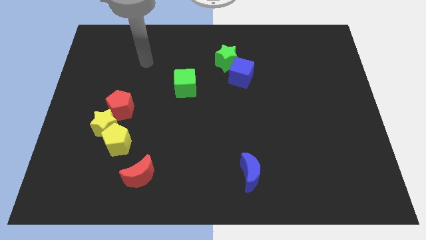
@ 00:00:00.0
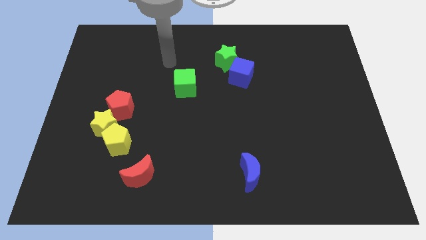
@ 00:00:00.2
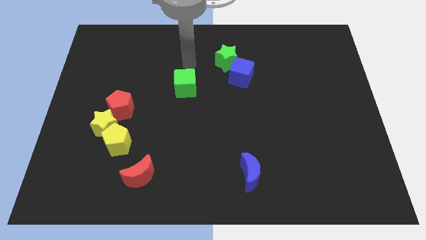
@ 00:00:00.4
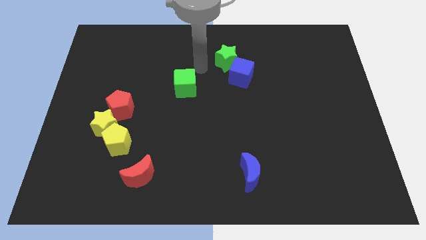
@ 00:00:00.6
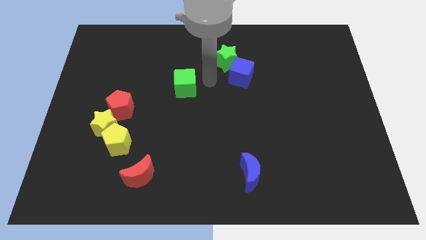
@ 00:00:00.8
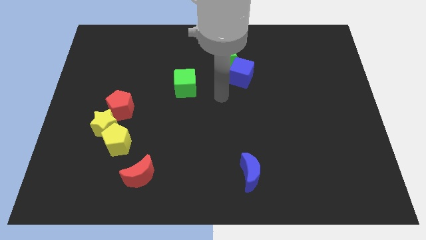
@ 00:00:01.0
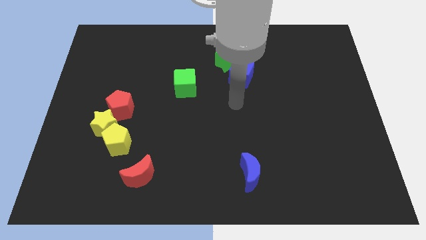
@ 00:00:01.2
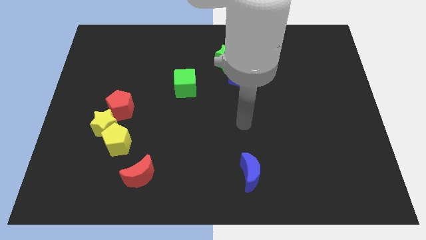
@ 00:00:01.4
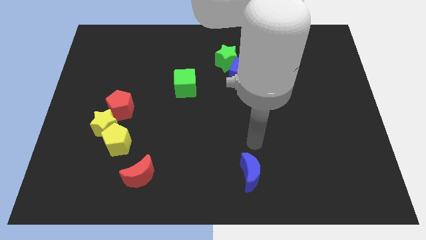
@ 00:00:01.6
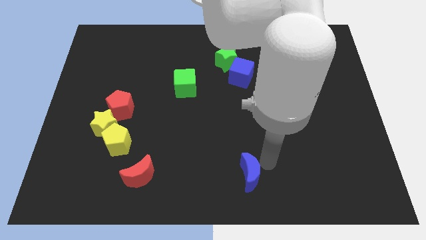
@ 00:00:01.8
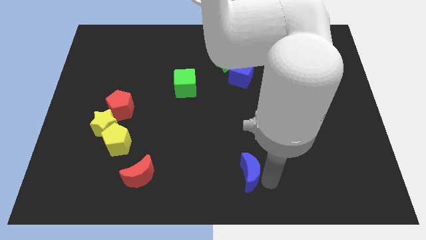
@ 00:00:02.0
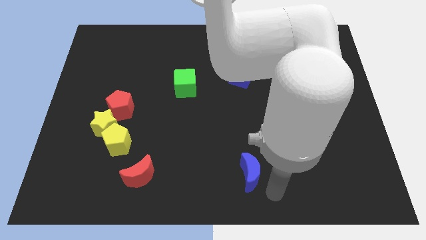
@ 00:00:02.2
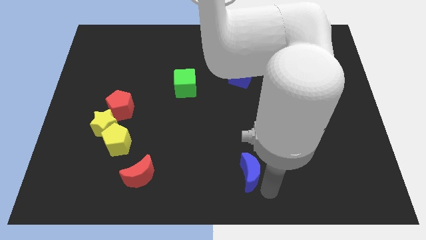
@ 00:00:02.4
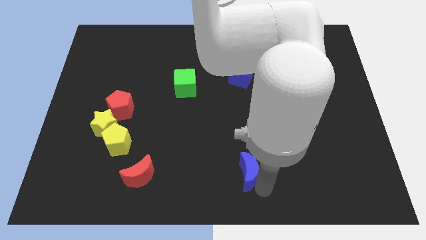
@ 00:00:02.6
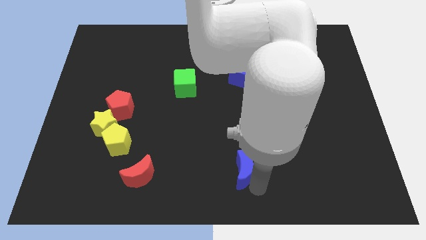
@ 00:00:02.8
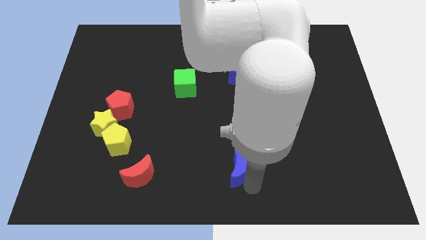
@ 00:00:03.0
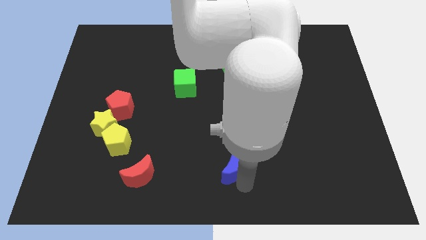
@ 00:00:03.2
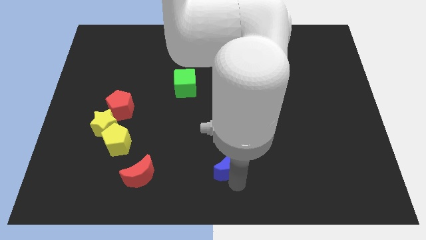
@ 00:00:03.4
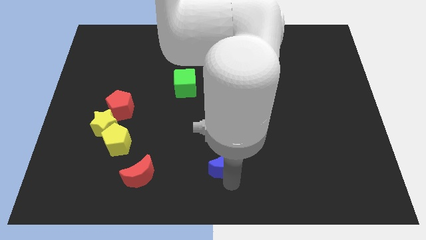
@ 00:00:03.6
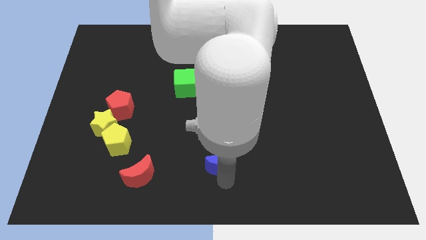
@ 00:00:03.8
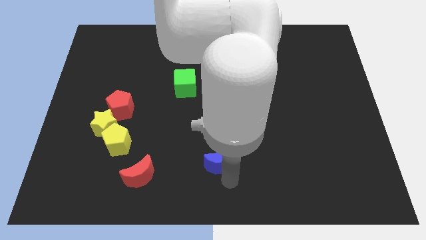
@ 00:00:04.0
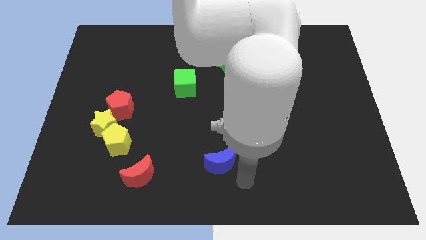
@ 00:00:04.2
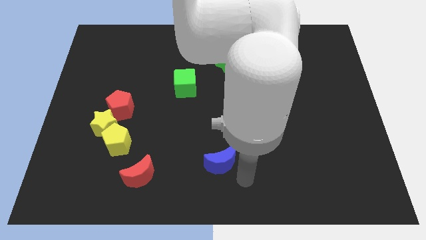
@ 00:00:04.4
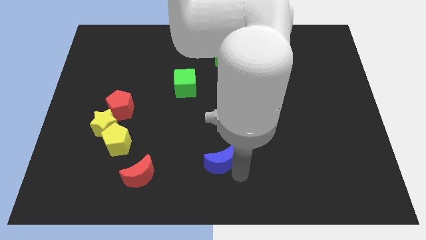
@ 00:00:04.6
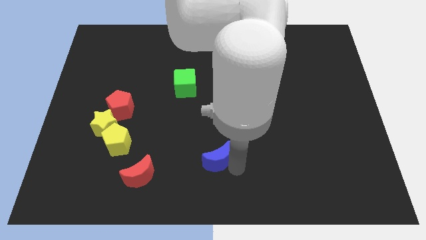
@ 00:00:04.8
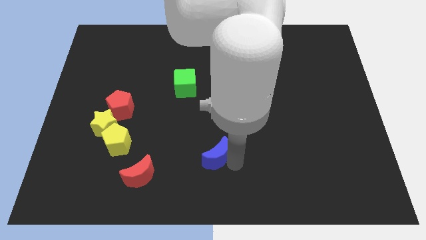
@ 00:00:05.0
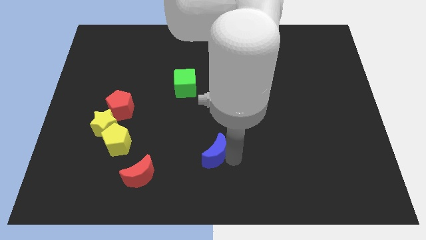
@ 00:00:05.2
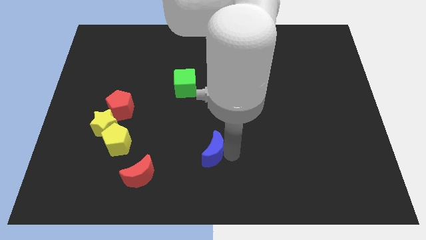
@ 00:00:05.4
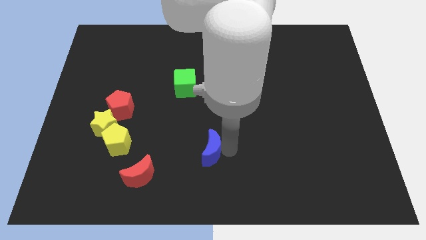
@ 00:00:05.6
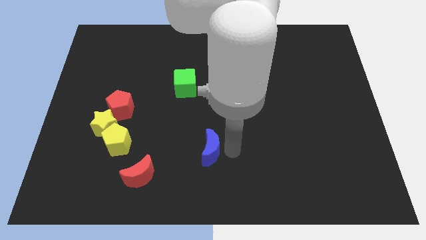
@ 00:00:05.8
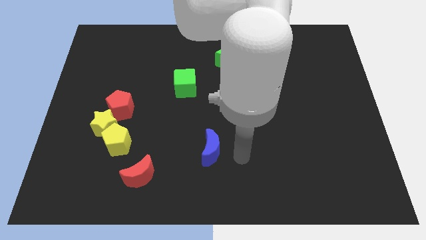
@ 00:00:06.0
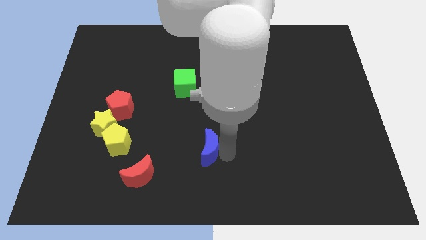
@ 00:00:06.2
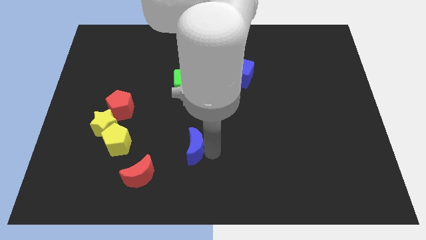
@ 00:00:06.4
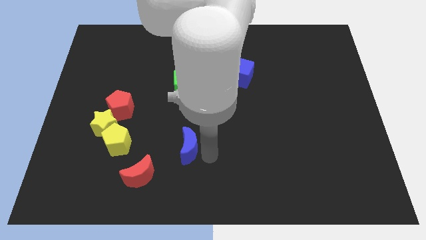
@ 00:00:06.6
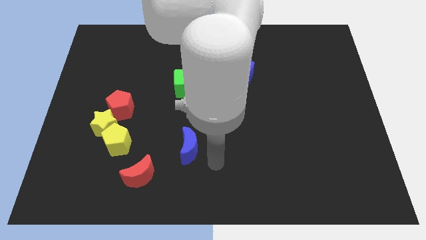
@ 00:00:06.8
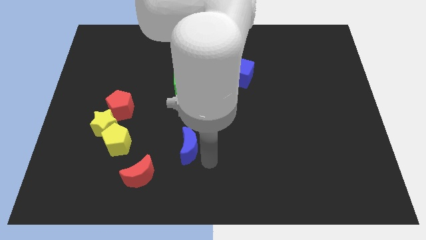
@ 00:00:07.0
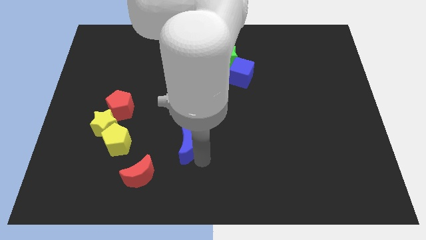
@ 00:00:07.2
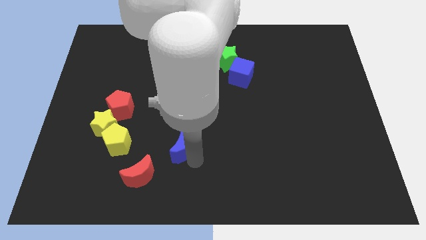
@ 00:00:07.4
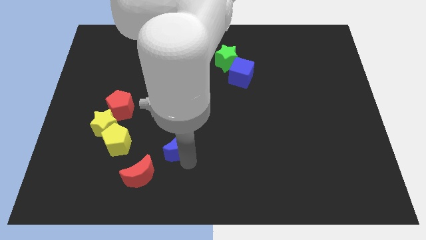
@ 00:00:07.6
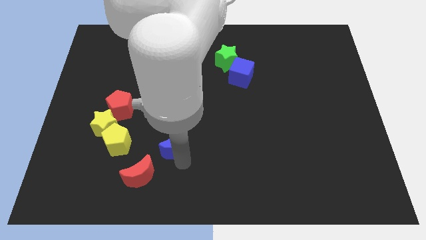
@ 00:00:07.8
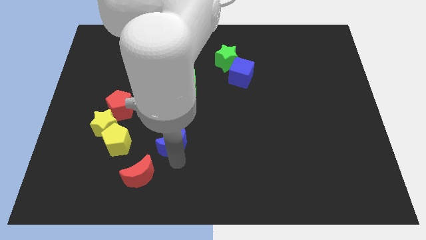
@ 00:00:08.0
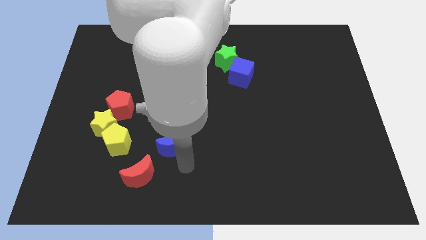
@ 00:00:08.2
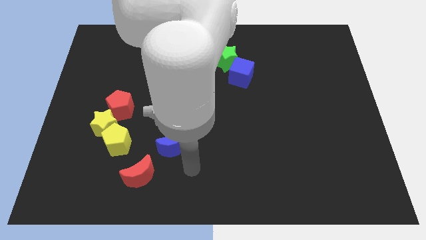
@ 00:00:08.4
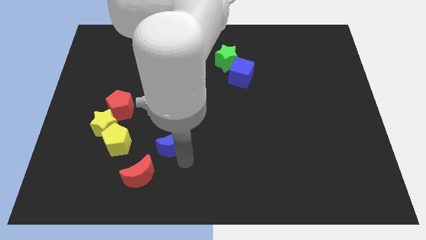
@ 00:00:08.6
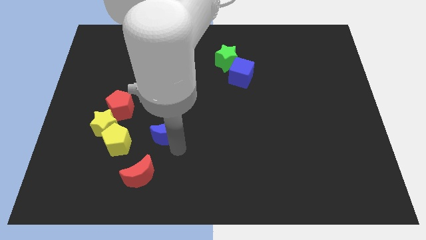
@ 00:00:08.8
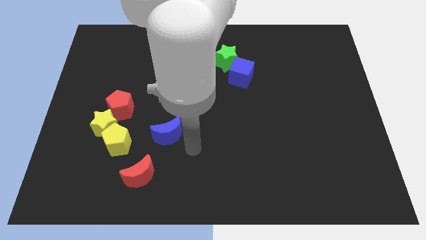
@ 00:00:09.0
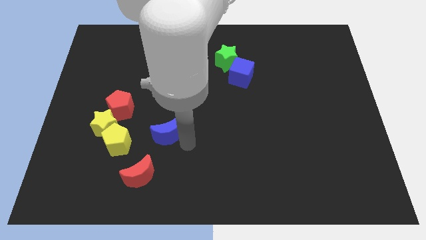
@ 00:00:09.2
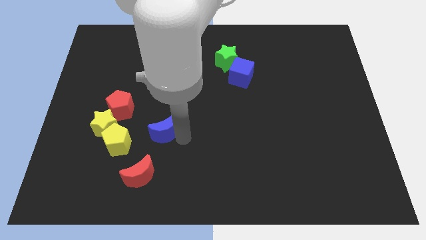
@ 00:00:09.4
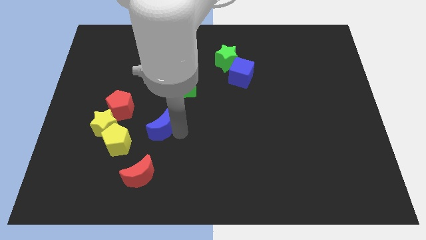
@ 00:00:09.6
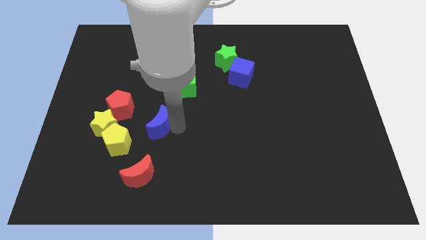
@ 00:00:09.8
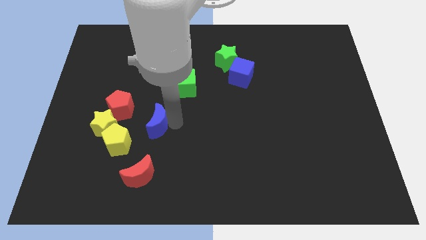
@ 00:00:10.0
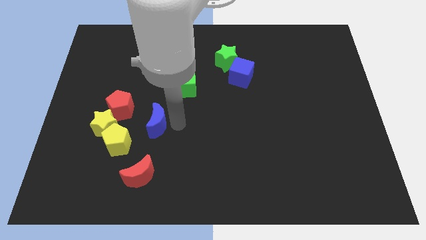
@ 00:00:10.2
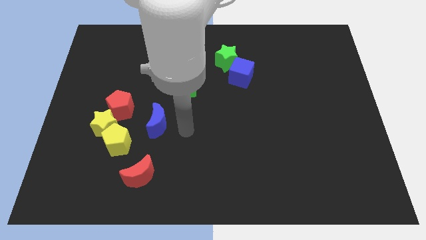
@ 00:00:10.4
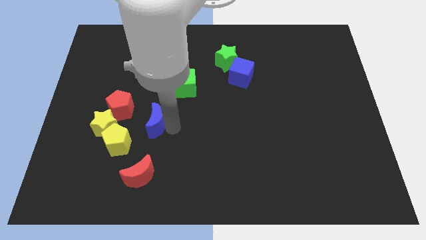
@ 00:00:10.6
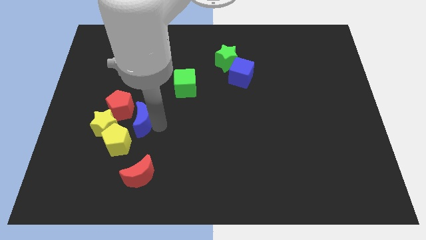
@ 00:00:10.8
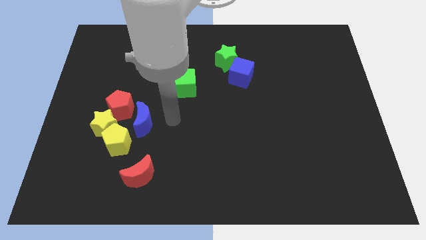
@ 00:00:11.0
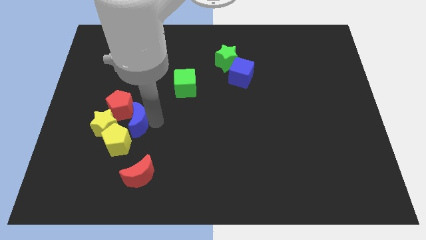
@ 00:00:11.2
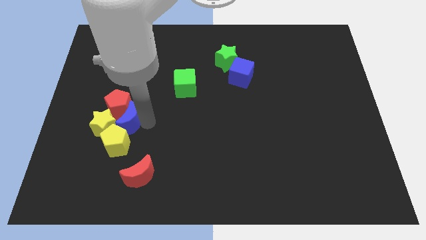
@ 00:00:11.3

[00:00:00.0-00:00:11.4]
put the blue moon towards the yellow star
